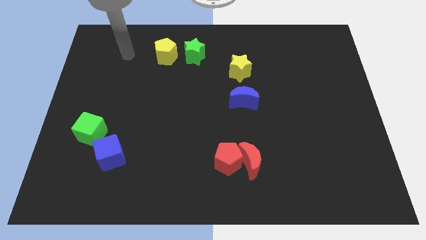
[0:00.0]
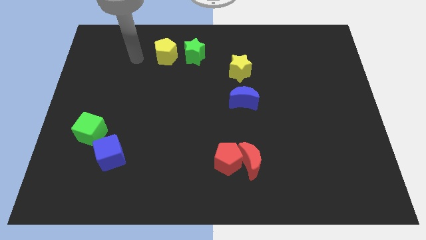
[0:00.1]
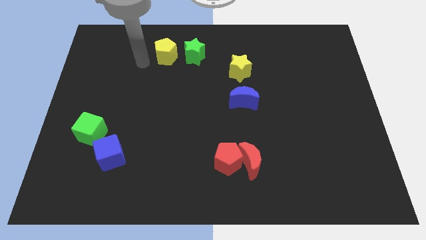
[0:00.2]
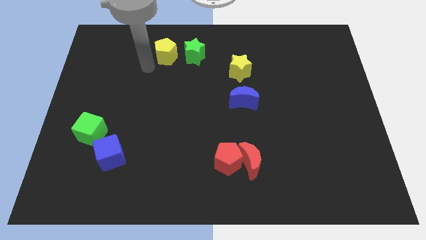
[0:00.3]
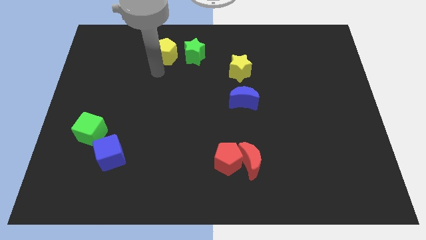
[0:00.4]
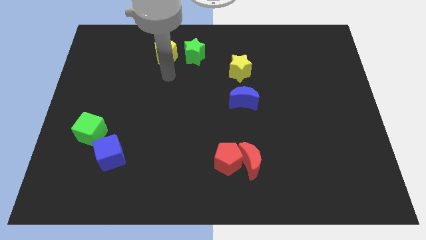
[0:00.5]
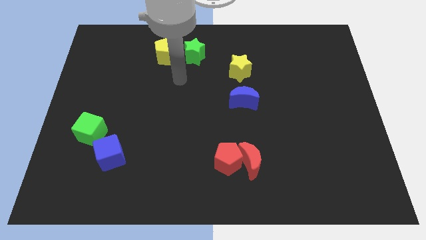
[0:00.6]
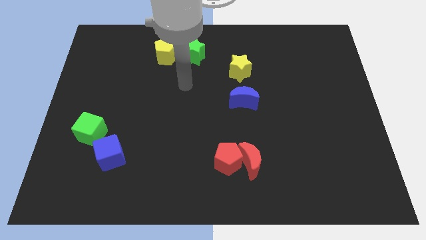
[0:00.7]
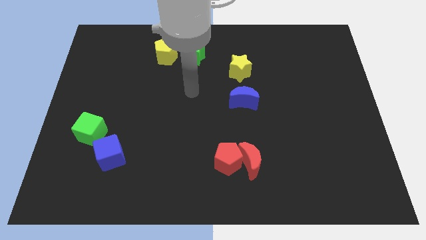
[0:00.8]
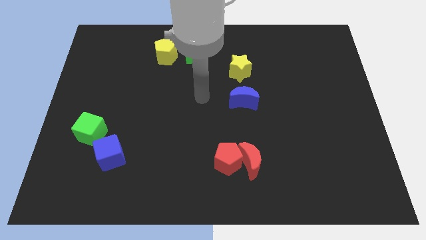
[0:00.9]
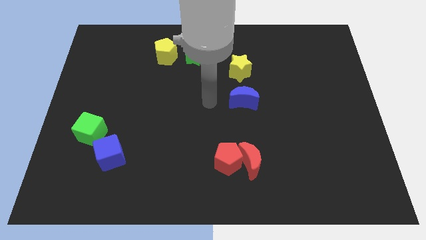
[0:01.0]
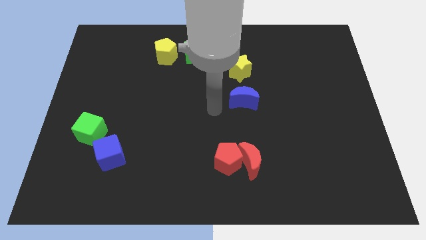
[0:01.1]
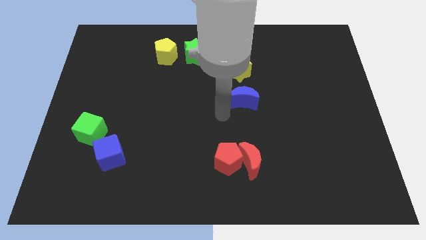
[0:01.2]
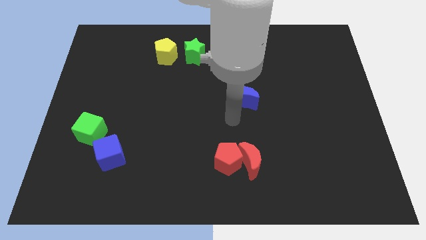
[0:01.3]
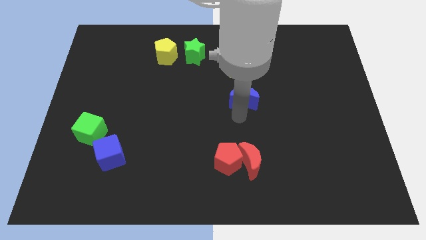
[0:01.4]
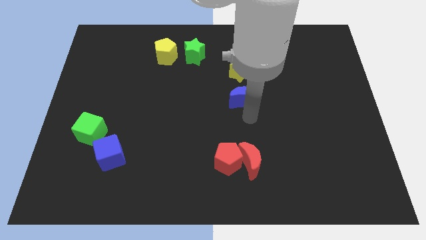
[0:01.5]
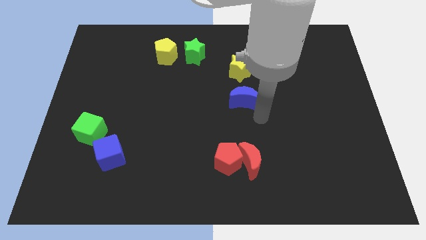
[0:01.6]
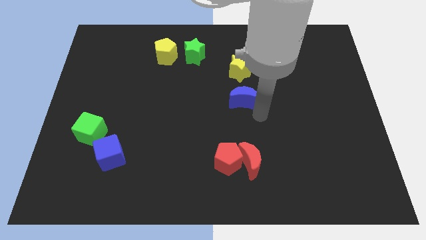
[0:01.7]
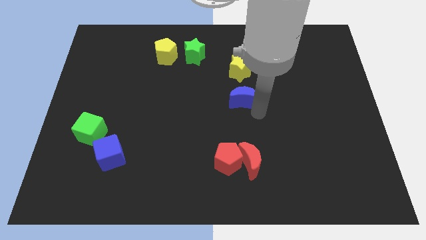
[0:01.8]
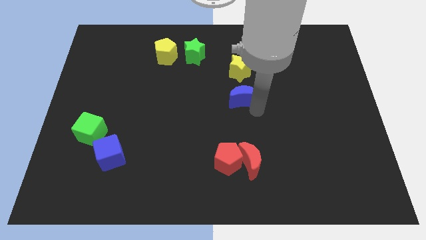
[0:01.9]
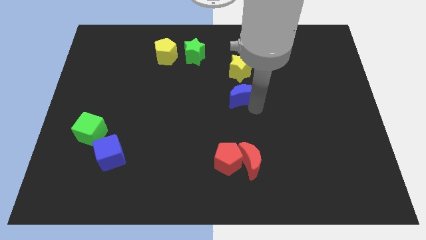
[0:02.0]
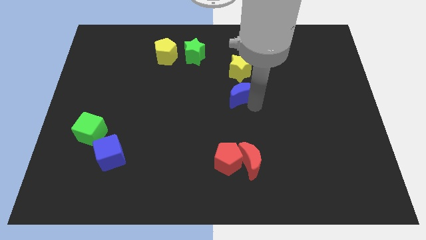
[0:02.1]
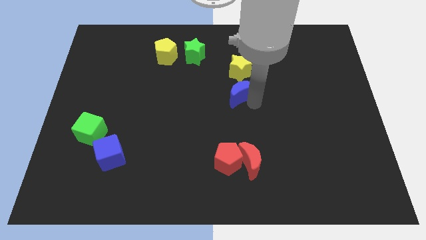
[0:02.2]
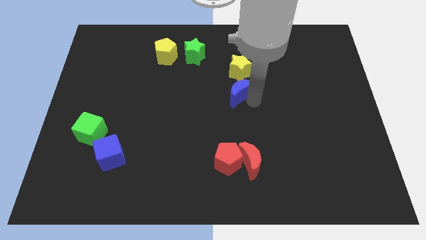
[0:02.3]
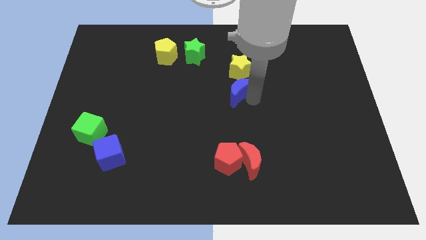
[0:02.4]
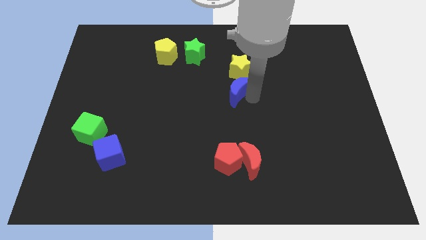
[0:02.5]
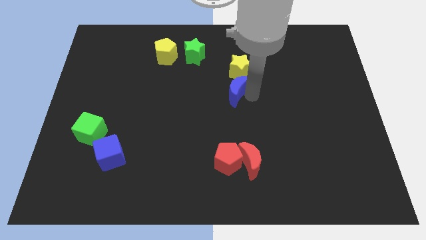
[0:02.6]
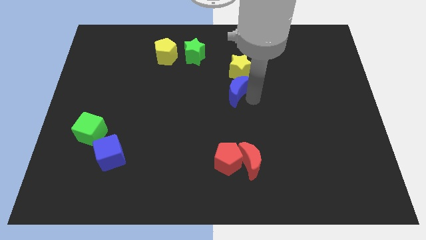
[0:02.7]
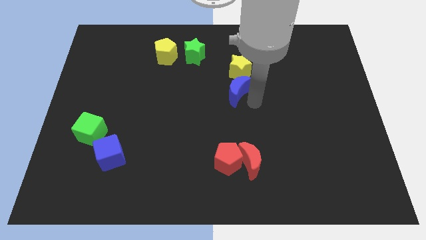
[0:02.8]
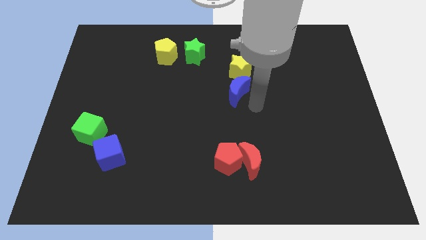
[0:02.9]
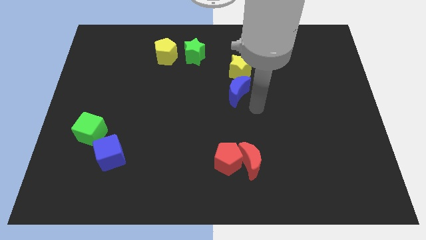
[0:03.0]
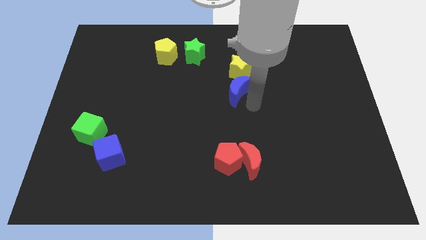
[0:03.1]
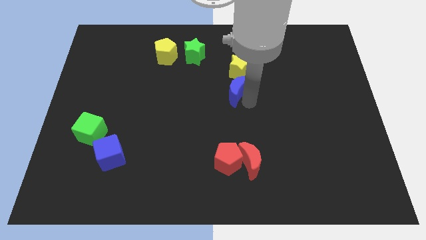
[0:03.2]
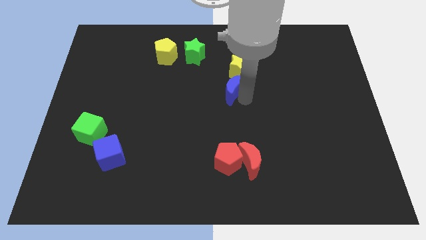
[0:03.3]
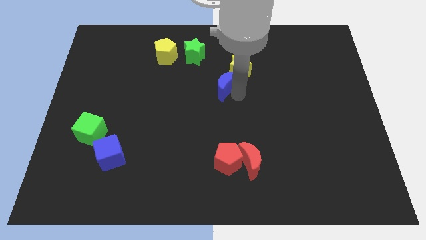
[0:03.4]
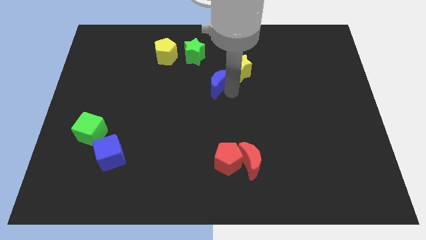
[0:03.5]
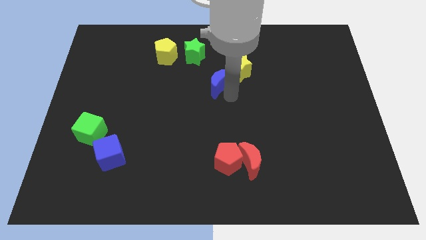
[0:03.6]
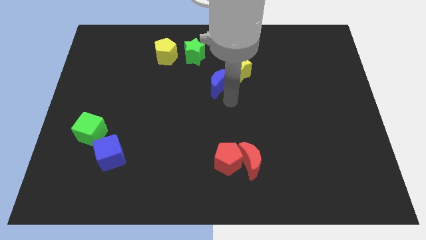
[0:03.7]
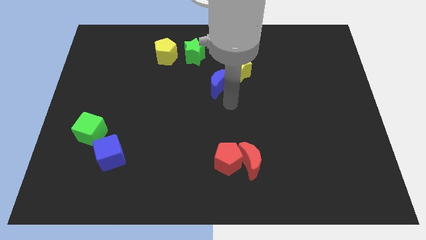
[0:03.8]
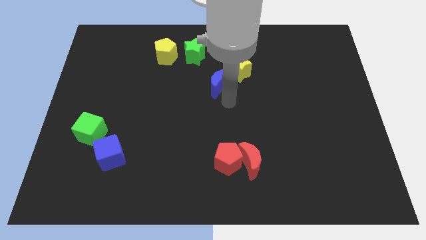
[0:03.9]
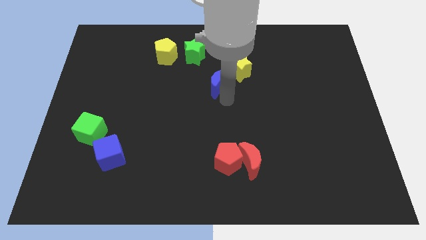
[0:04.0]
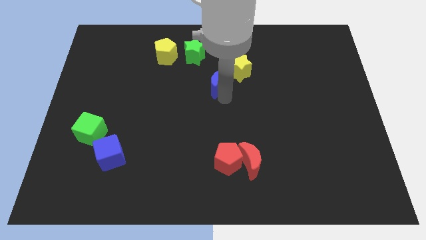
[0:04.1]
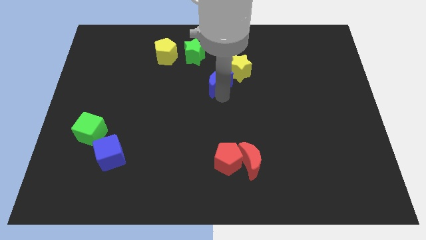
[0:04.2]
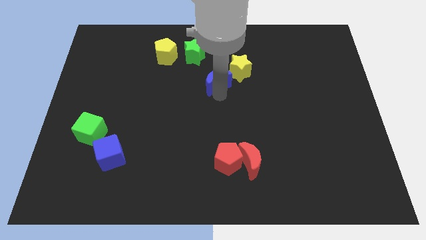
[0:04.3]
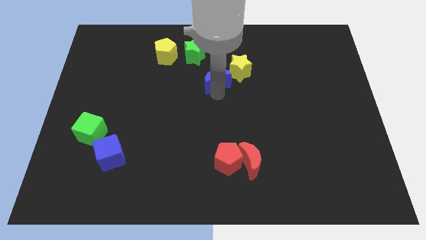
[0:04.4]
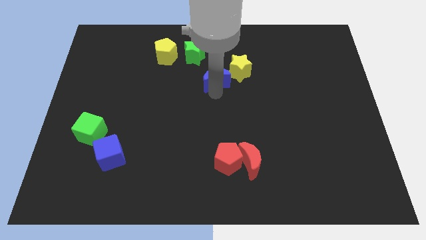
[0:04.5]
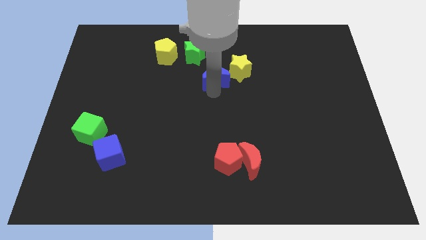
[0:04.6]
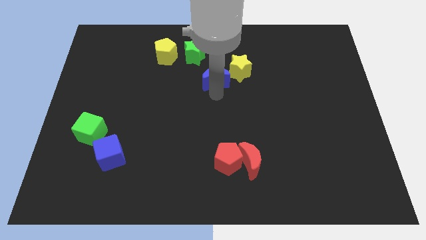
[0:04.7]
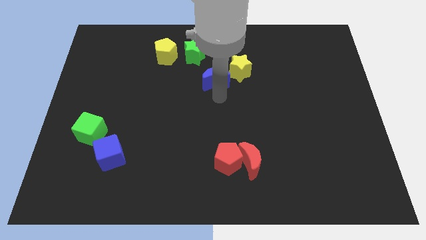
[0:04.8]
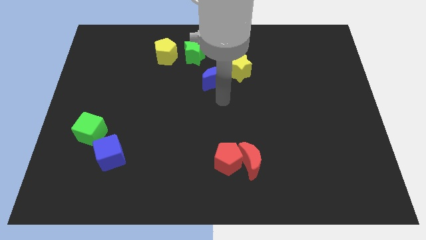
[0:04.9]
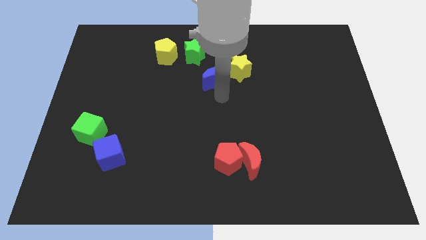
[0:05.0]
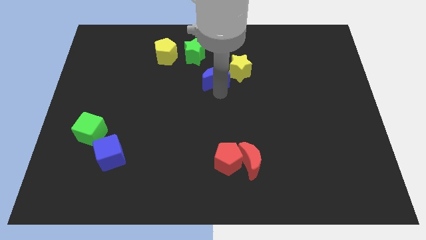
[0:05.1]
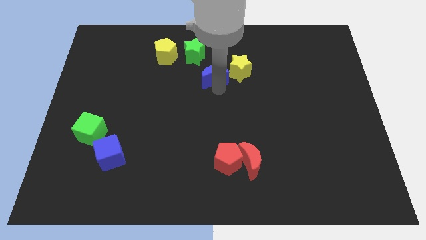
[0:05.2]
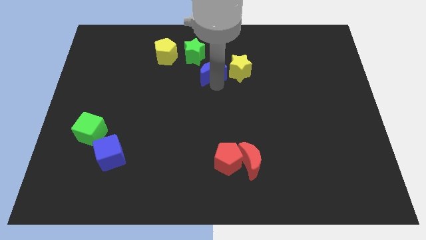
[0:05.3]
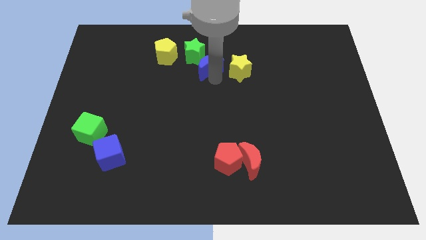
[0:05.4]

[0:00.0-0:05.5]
put the blue moon close to the green star

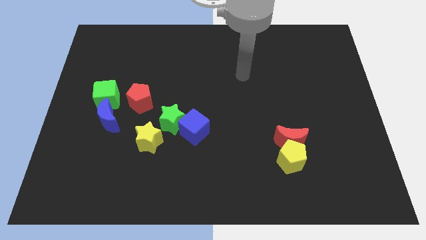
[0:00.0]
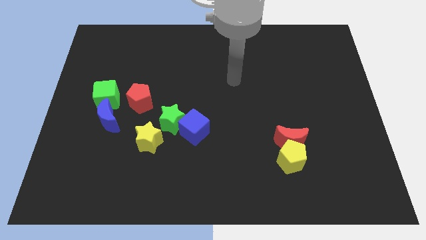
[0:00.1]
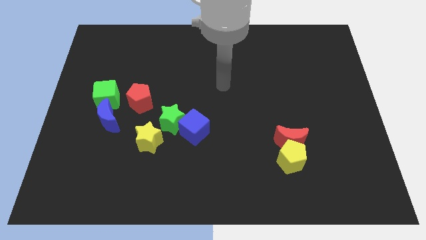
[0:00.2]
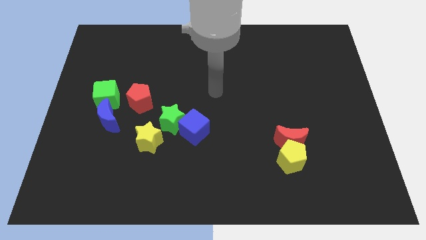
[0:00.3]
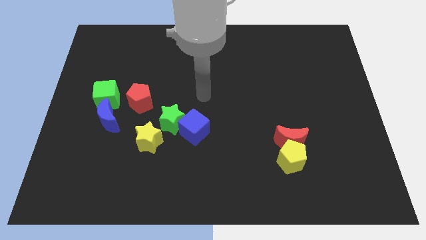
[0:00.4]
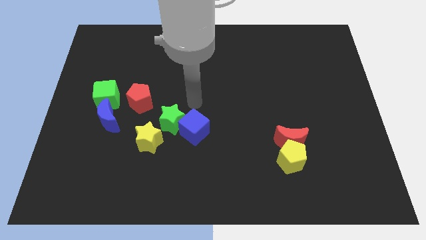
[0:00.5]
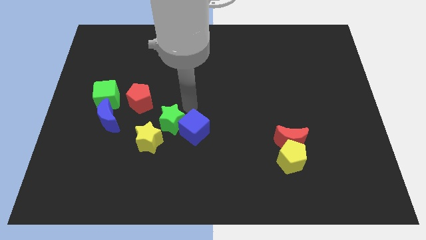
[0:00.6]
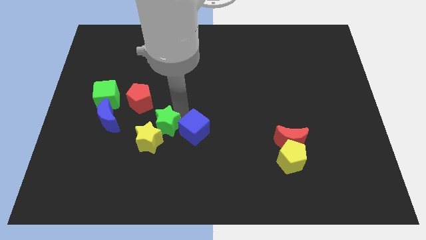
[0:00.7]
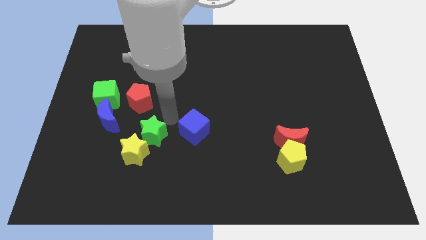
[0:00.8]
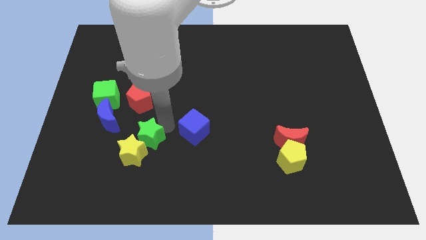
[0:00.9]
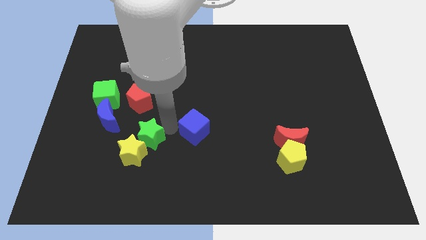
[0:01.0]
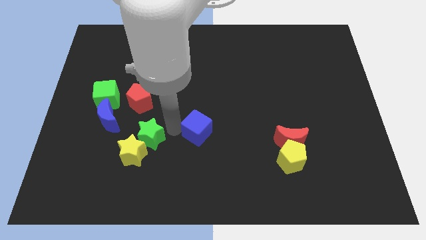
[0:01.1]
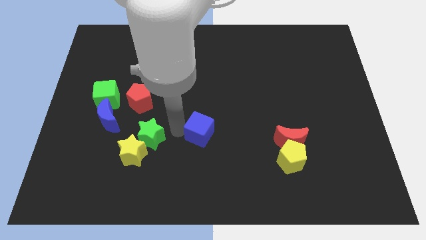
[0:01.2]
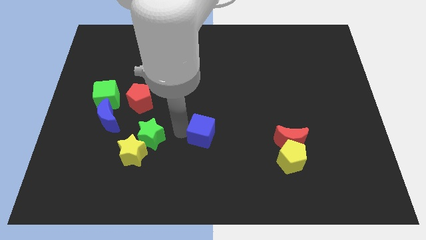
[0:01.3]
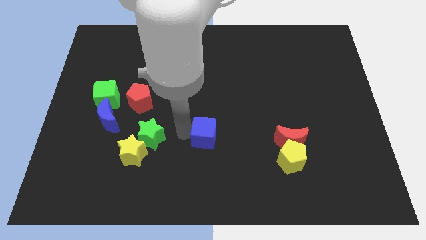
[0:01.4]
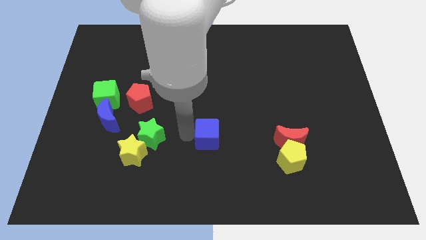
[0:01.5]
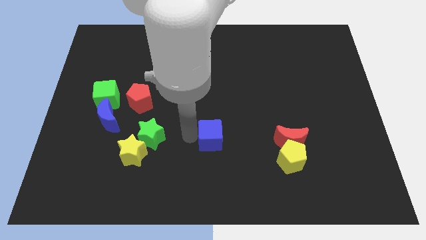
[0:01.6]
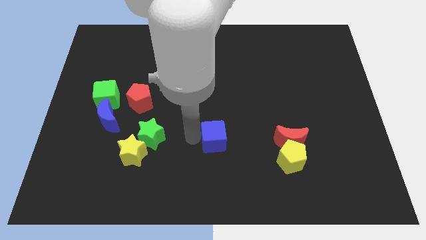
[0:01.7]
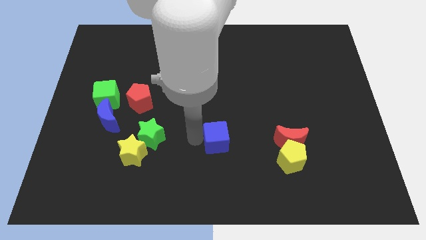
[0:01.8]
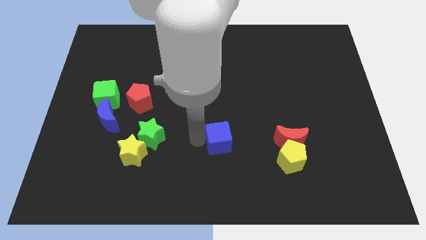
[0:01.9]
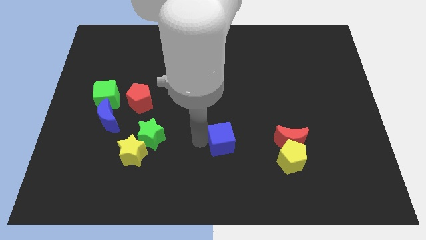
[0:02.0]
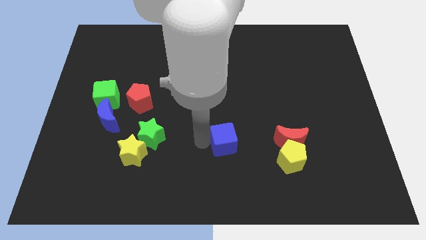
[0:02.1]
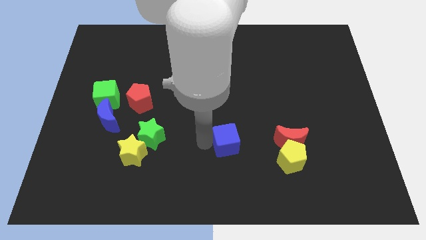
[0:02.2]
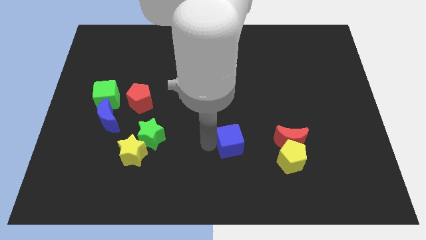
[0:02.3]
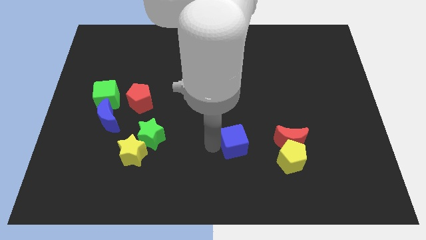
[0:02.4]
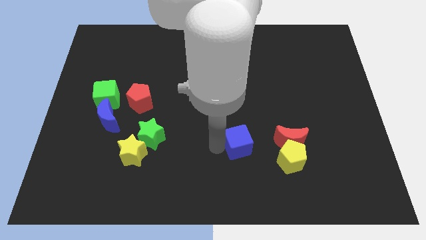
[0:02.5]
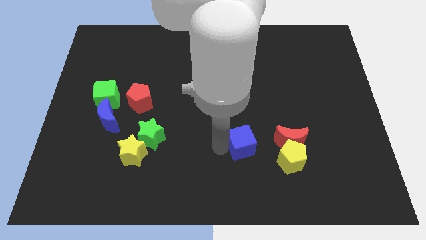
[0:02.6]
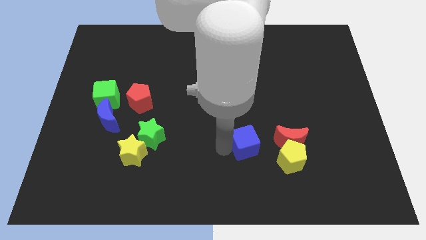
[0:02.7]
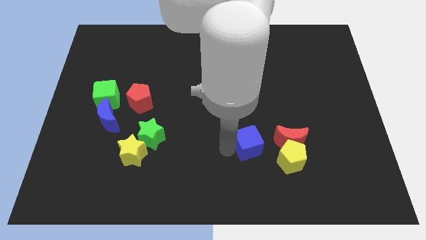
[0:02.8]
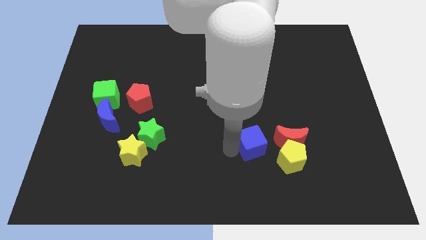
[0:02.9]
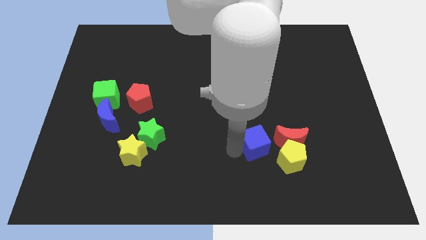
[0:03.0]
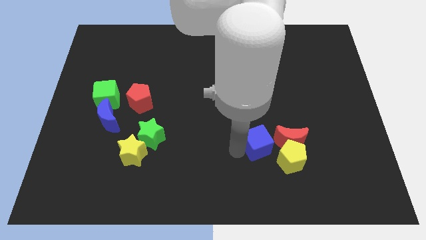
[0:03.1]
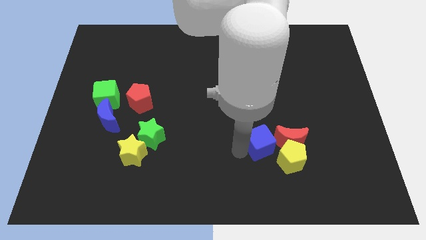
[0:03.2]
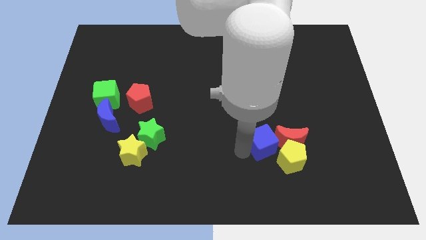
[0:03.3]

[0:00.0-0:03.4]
slide the blue cube to the red moon
